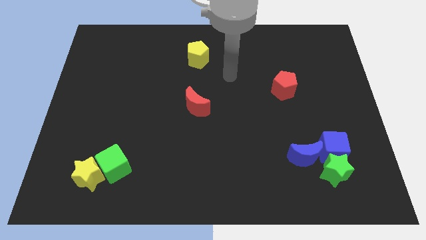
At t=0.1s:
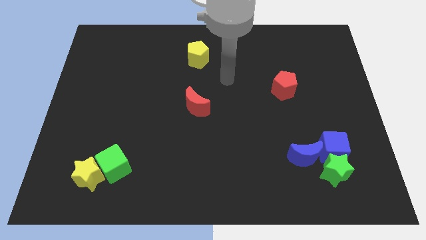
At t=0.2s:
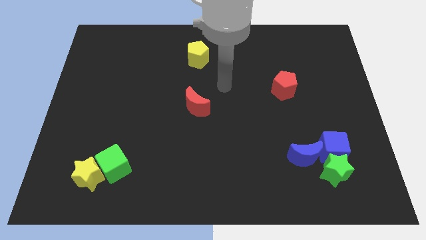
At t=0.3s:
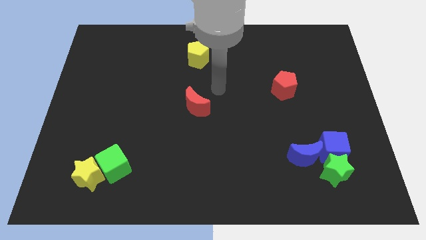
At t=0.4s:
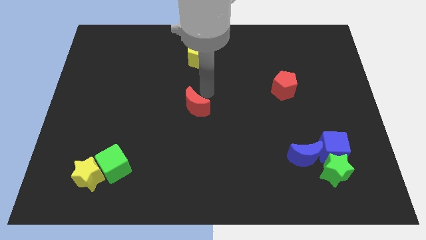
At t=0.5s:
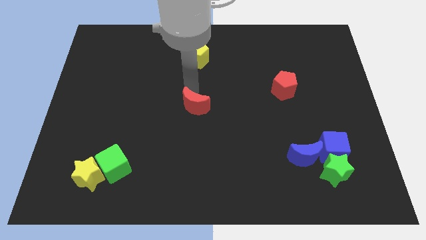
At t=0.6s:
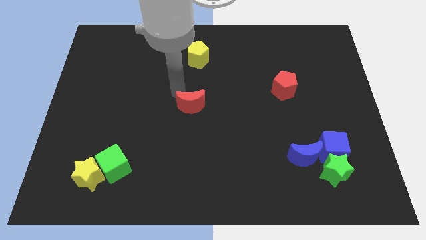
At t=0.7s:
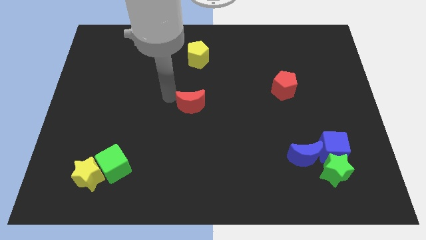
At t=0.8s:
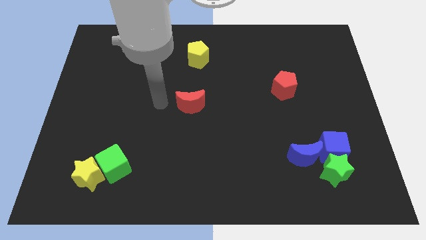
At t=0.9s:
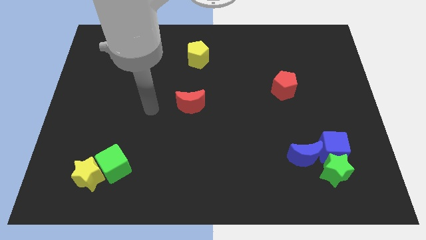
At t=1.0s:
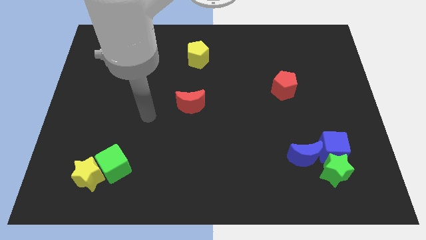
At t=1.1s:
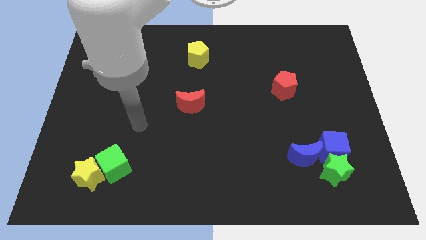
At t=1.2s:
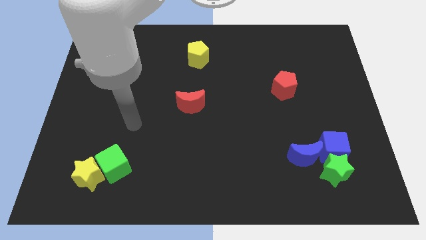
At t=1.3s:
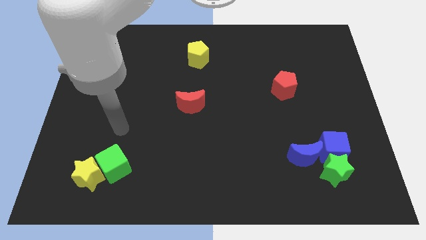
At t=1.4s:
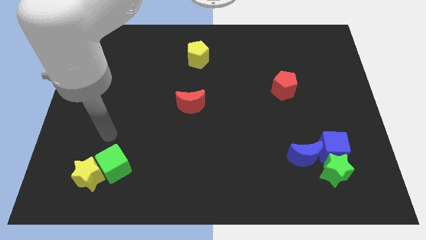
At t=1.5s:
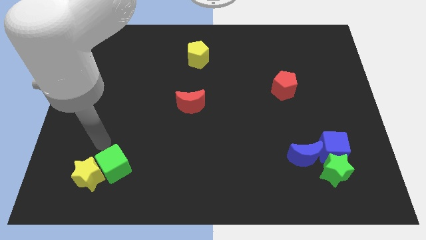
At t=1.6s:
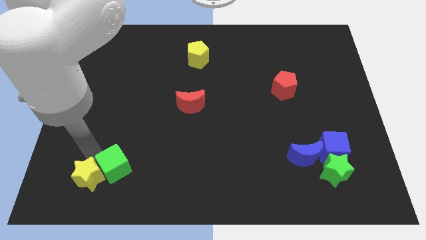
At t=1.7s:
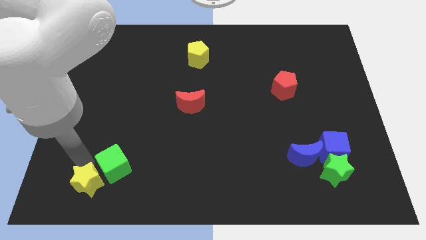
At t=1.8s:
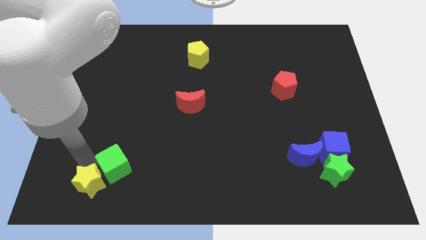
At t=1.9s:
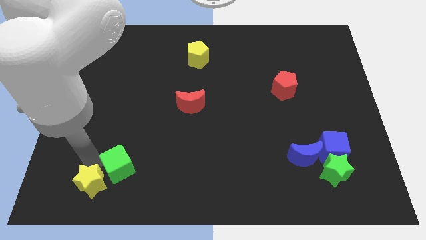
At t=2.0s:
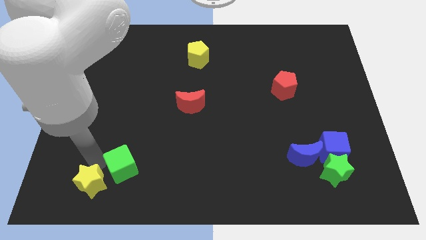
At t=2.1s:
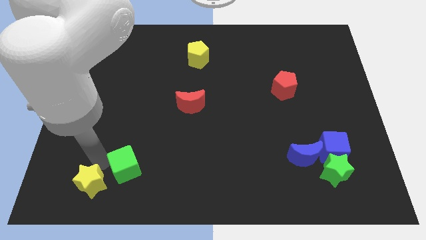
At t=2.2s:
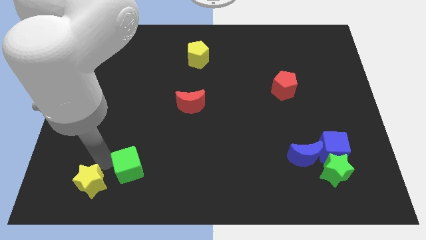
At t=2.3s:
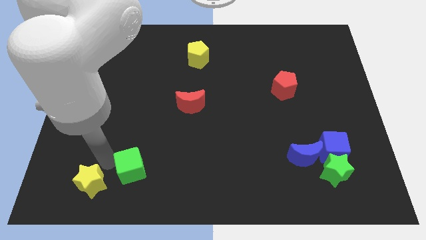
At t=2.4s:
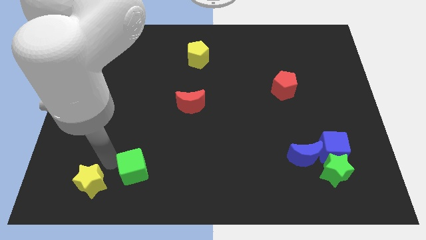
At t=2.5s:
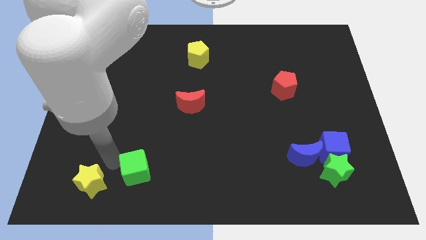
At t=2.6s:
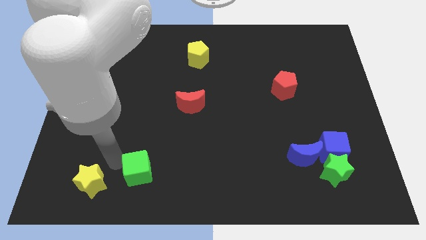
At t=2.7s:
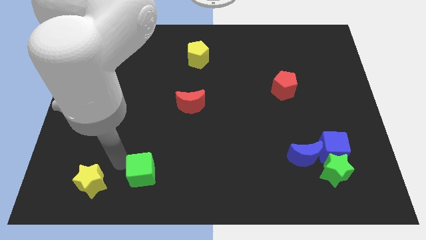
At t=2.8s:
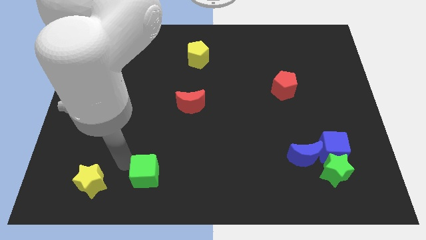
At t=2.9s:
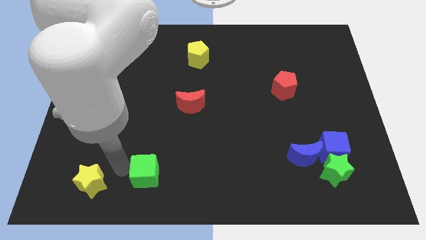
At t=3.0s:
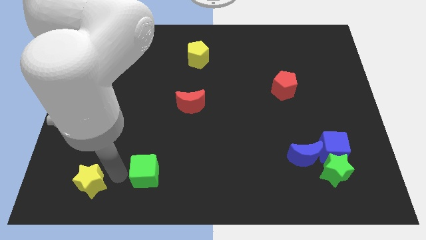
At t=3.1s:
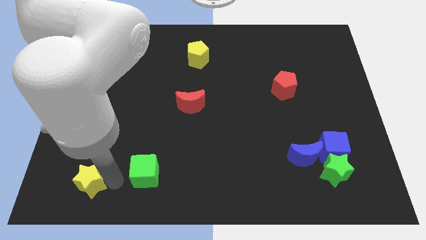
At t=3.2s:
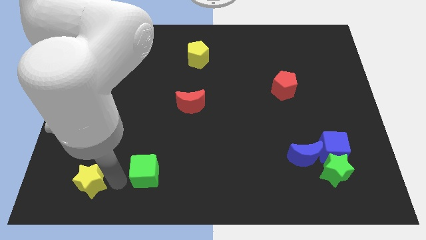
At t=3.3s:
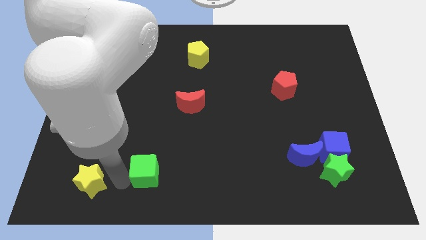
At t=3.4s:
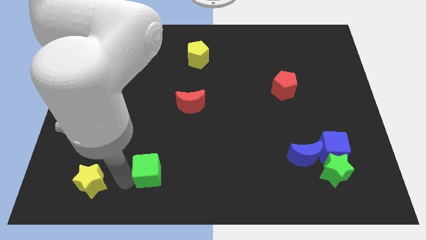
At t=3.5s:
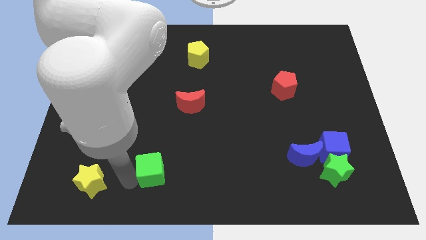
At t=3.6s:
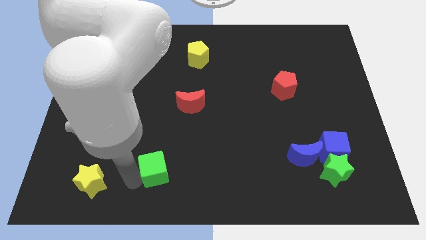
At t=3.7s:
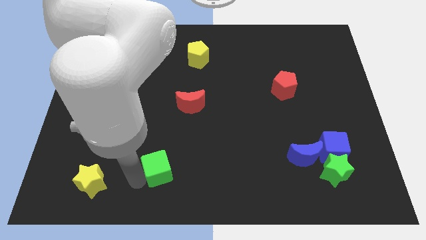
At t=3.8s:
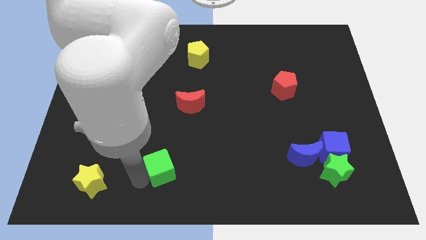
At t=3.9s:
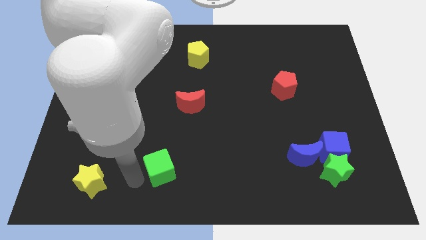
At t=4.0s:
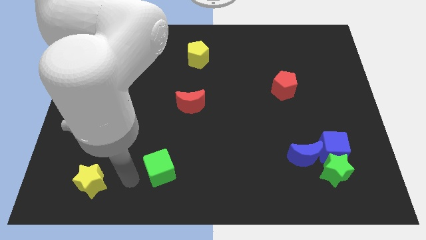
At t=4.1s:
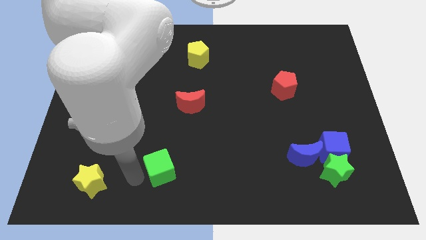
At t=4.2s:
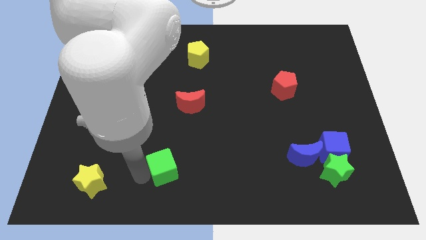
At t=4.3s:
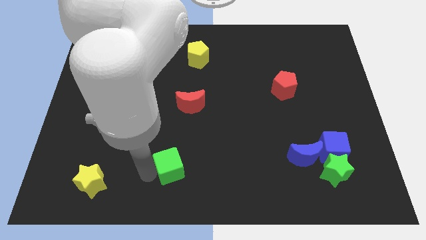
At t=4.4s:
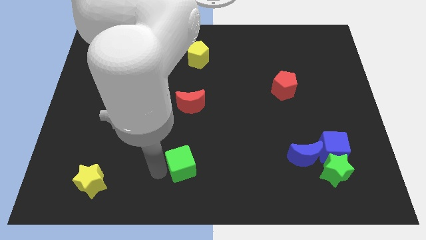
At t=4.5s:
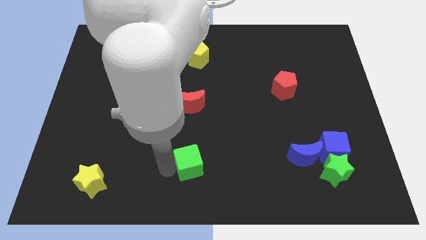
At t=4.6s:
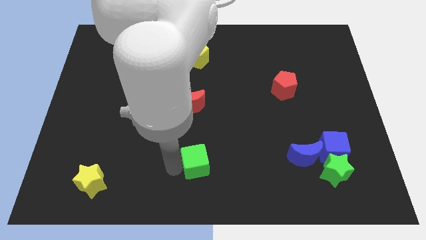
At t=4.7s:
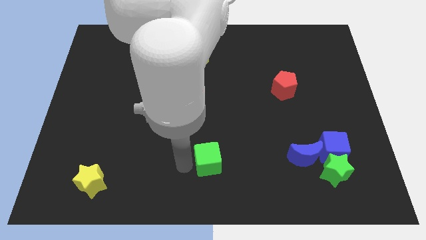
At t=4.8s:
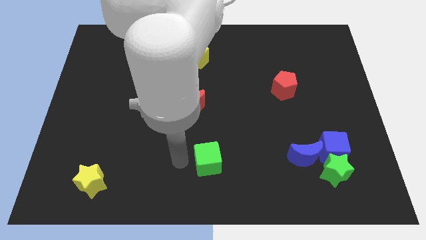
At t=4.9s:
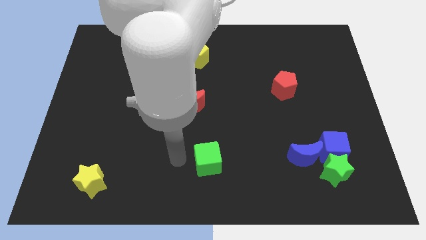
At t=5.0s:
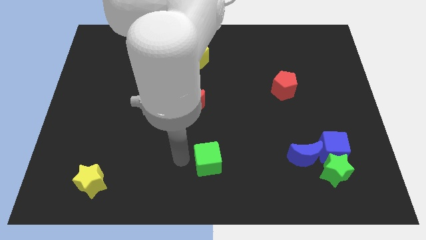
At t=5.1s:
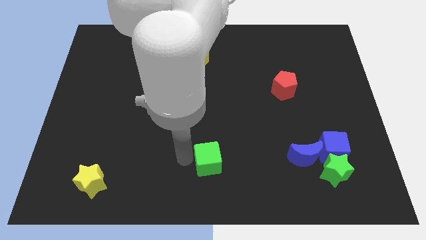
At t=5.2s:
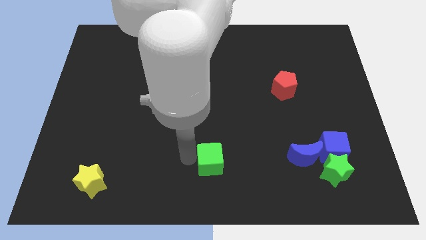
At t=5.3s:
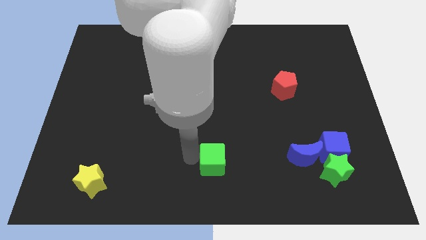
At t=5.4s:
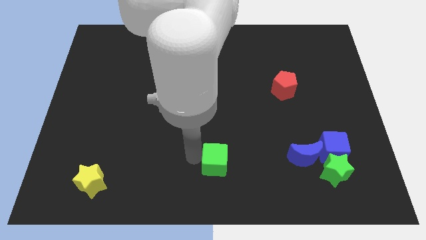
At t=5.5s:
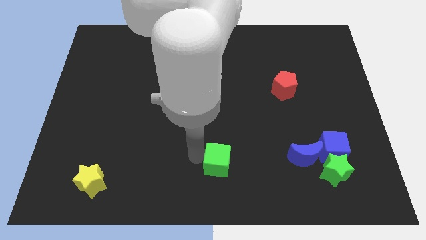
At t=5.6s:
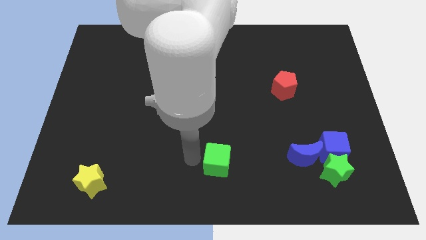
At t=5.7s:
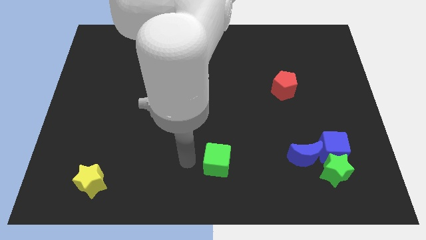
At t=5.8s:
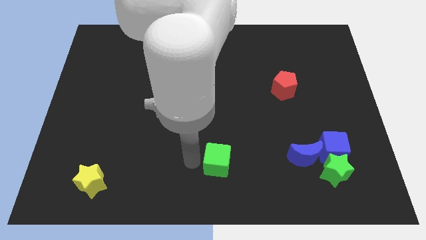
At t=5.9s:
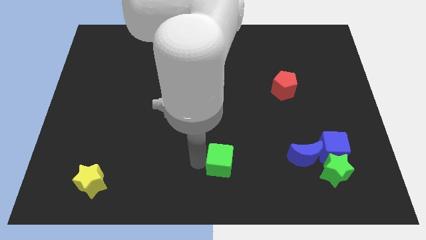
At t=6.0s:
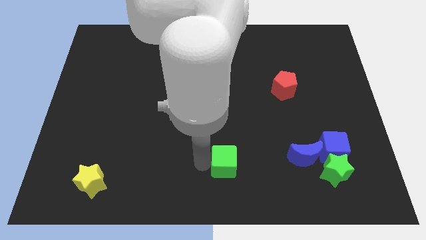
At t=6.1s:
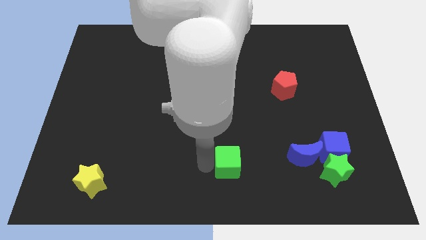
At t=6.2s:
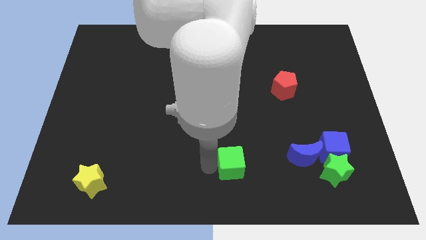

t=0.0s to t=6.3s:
push the green cube left of the blue moon

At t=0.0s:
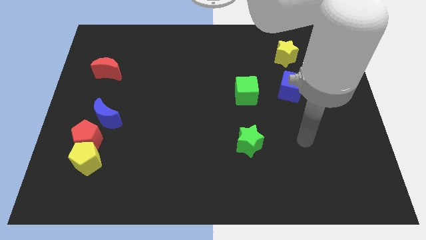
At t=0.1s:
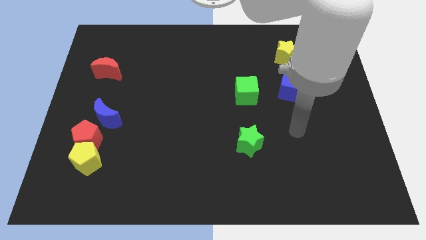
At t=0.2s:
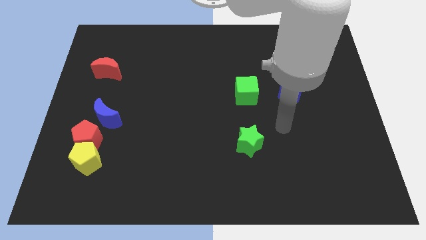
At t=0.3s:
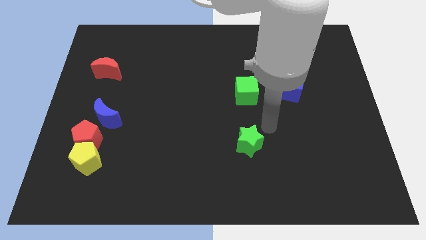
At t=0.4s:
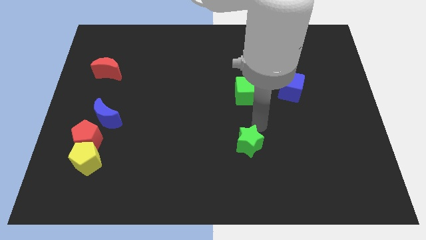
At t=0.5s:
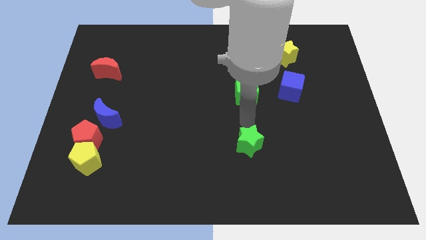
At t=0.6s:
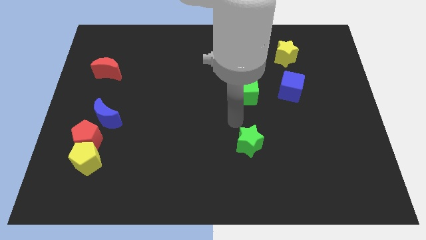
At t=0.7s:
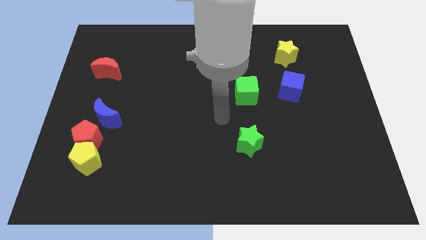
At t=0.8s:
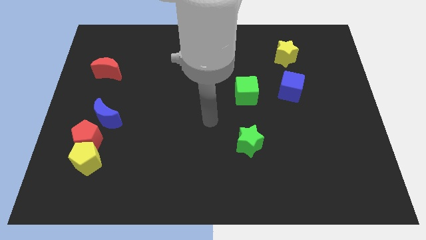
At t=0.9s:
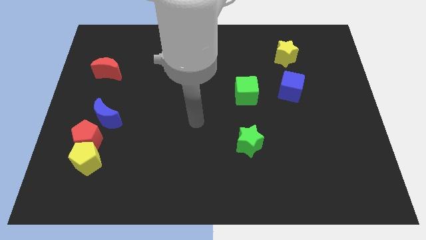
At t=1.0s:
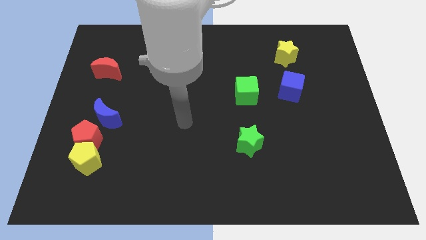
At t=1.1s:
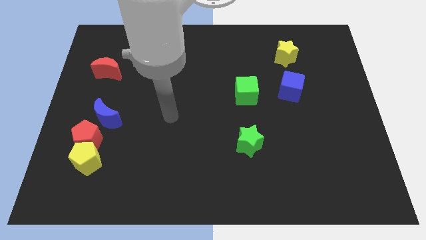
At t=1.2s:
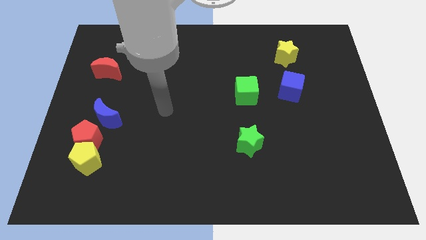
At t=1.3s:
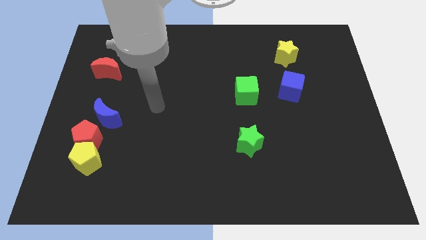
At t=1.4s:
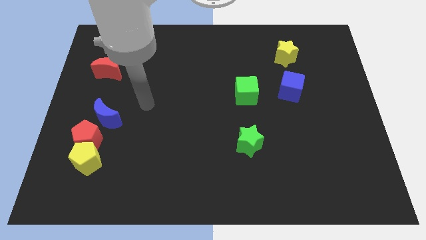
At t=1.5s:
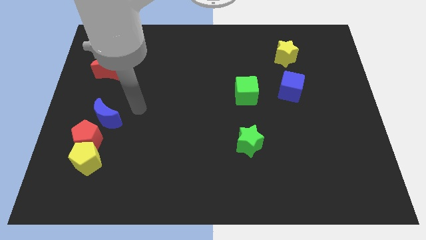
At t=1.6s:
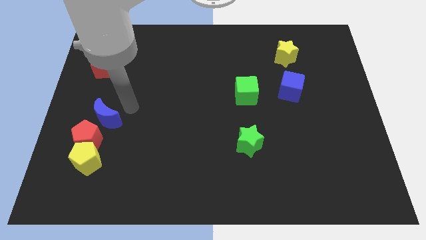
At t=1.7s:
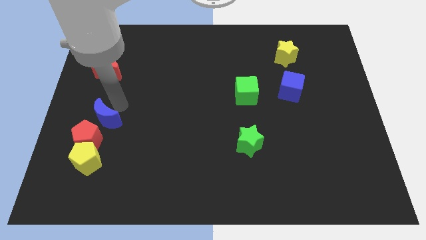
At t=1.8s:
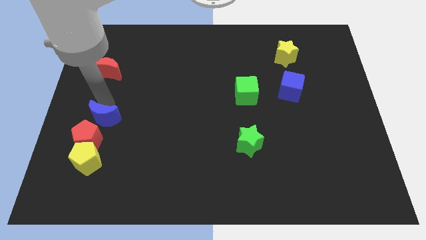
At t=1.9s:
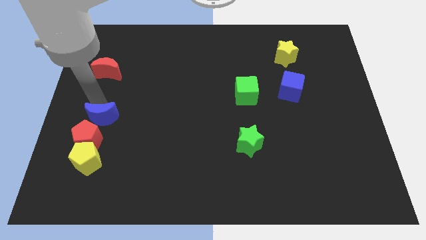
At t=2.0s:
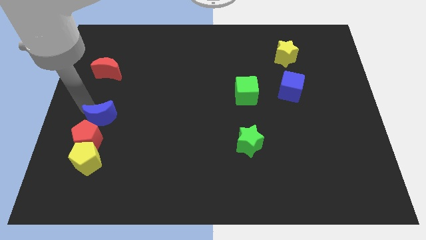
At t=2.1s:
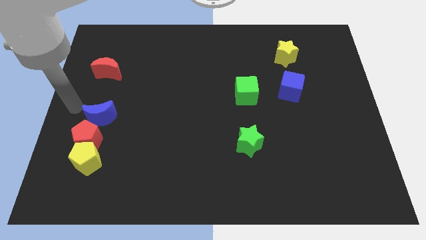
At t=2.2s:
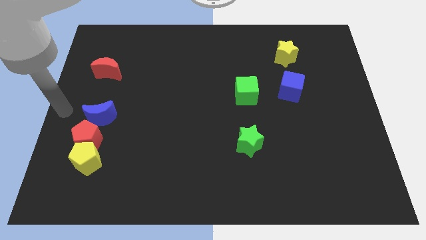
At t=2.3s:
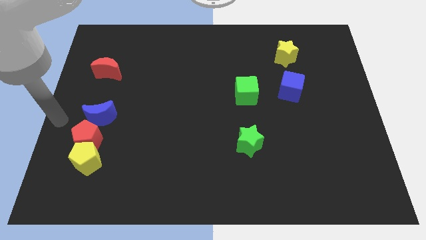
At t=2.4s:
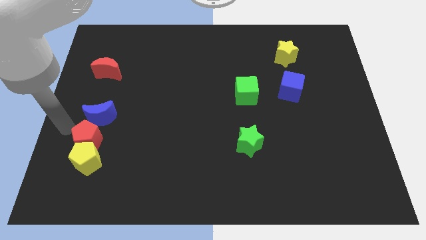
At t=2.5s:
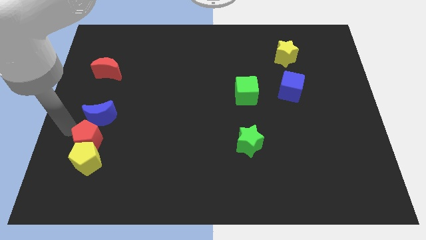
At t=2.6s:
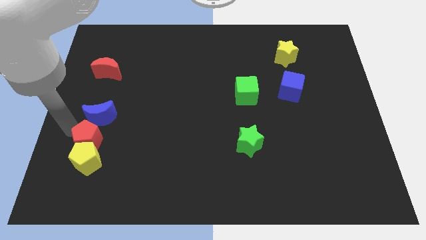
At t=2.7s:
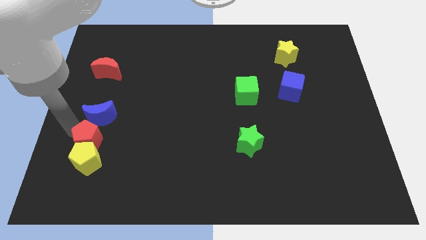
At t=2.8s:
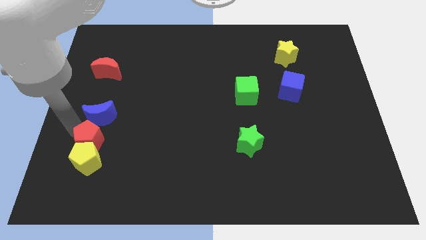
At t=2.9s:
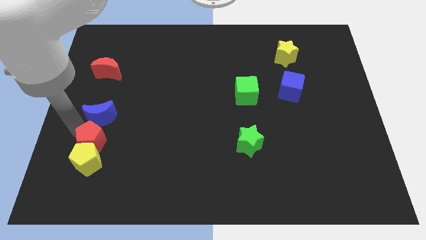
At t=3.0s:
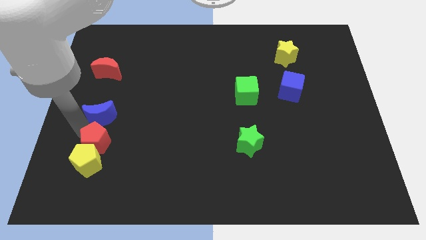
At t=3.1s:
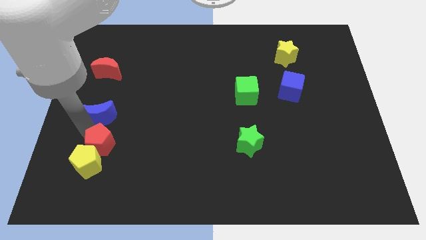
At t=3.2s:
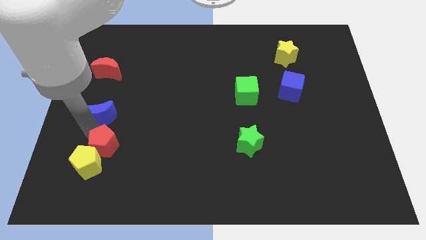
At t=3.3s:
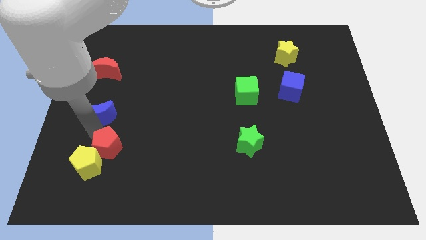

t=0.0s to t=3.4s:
move the red pentagon right of the yellow pentagon
